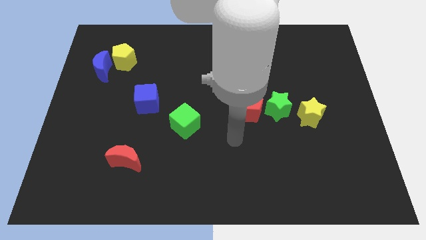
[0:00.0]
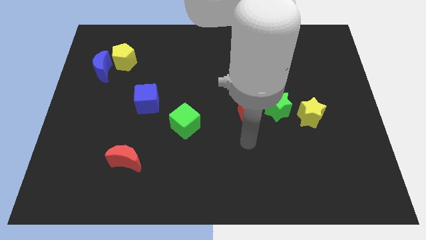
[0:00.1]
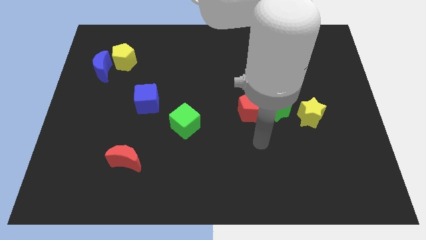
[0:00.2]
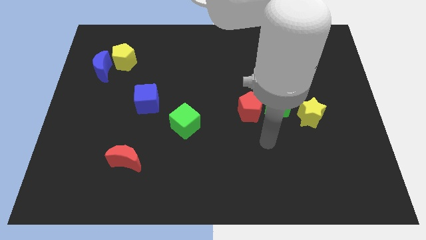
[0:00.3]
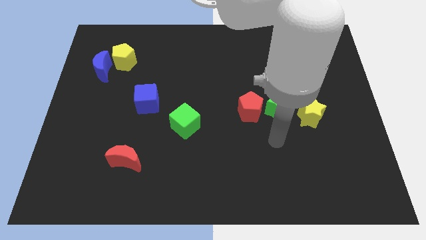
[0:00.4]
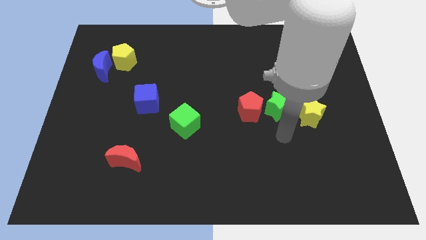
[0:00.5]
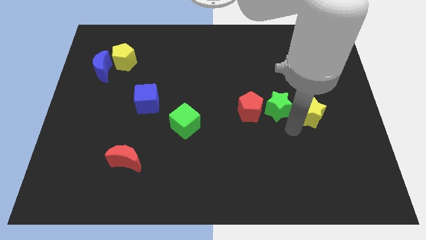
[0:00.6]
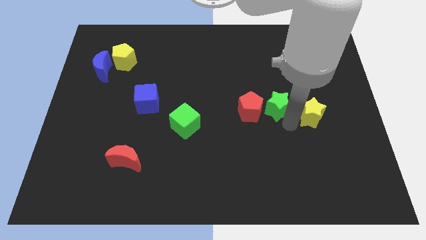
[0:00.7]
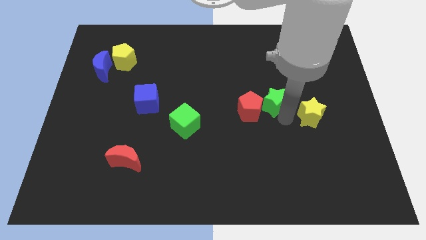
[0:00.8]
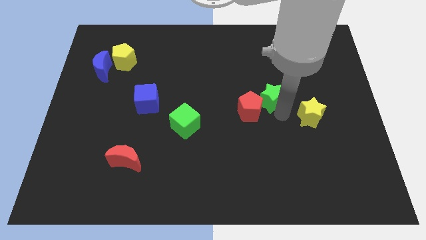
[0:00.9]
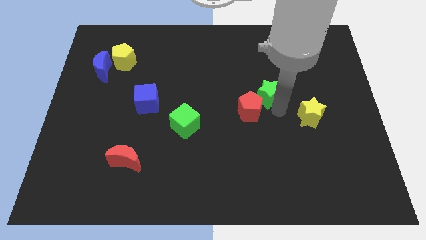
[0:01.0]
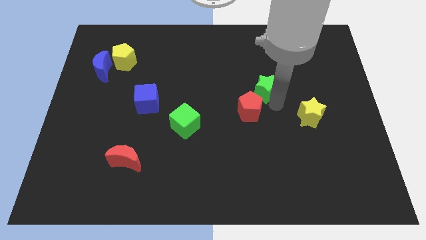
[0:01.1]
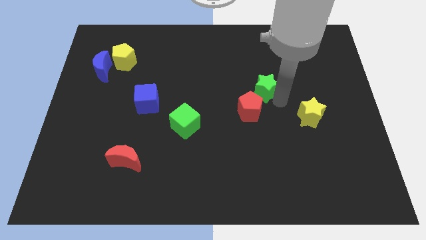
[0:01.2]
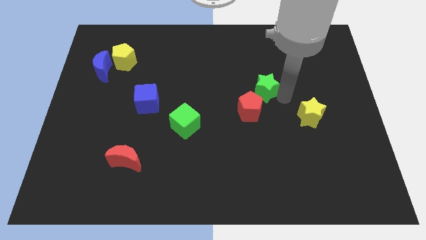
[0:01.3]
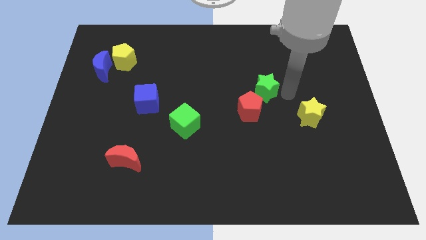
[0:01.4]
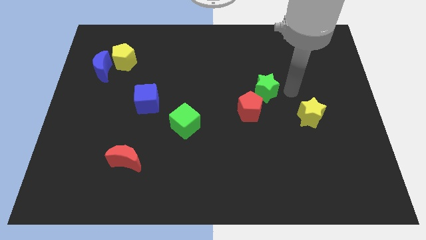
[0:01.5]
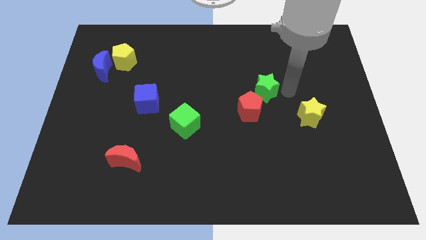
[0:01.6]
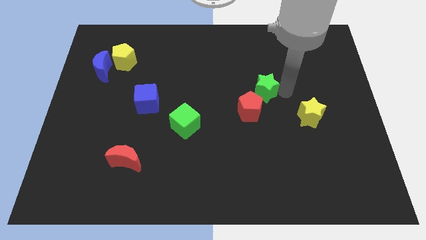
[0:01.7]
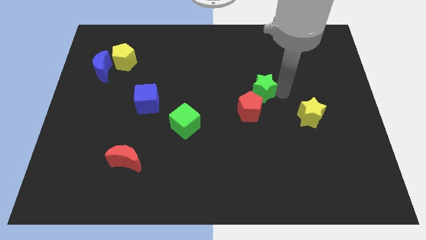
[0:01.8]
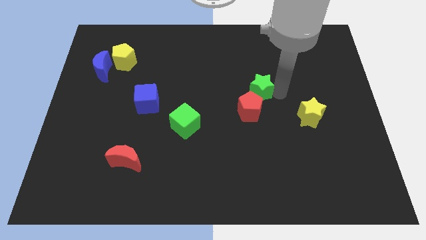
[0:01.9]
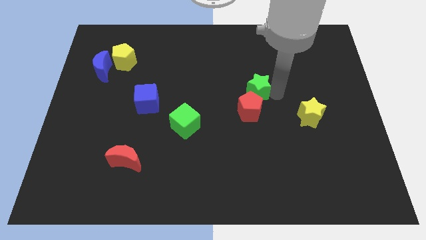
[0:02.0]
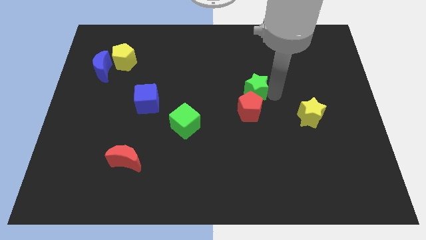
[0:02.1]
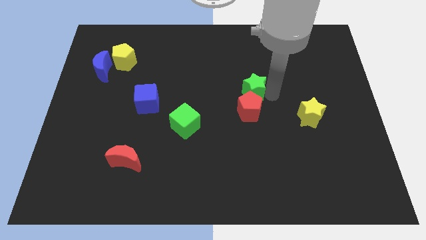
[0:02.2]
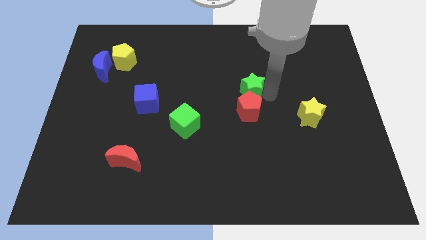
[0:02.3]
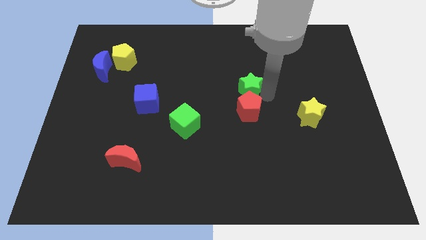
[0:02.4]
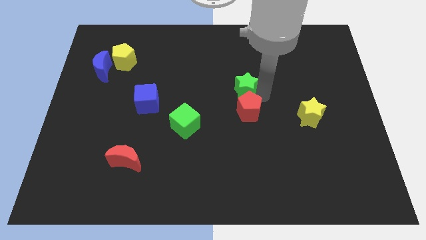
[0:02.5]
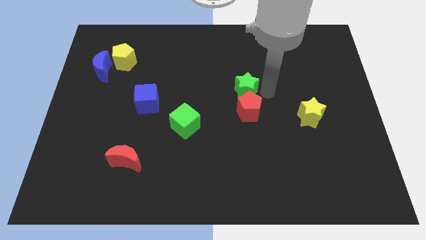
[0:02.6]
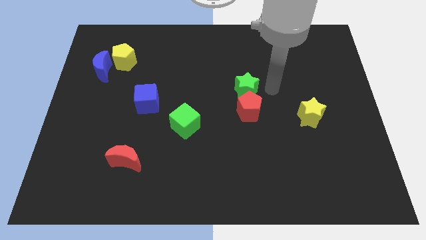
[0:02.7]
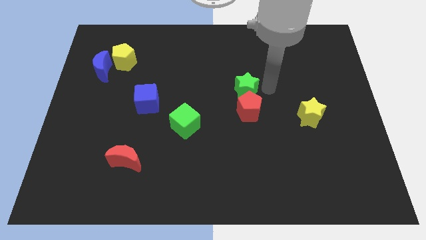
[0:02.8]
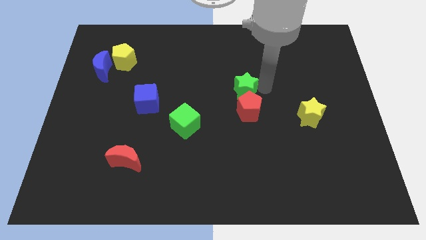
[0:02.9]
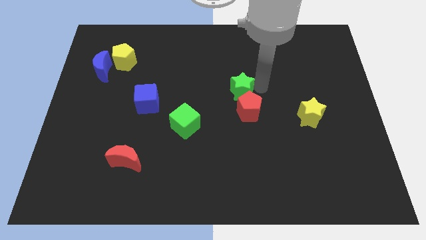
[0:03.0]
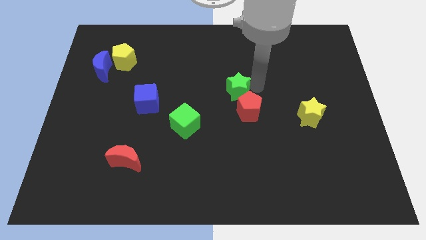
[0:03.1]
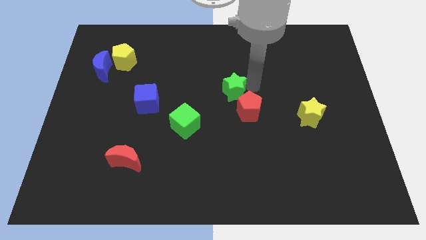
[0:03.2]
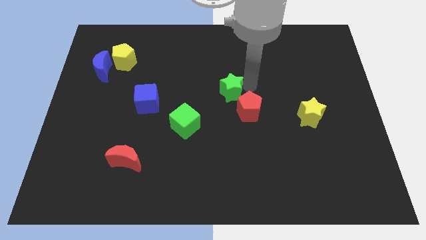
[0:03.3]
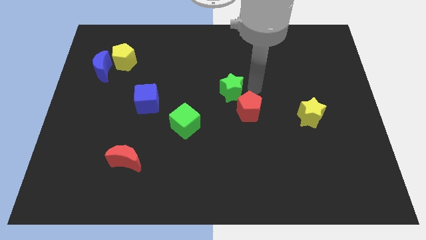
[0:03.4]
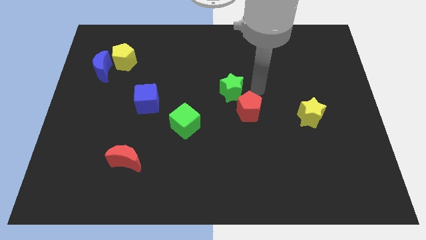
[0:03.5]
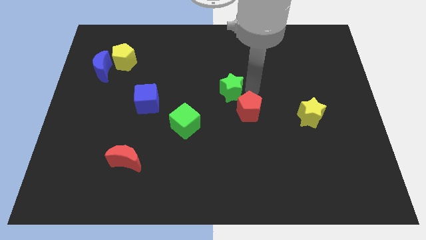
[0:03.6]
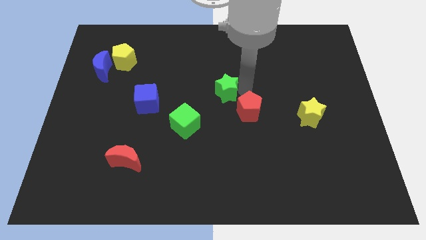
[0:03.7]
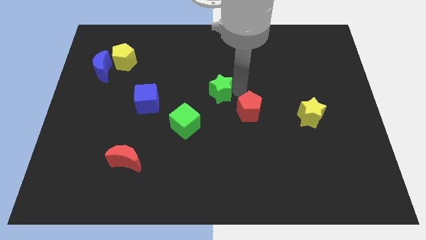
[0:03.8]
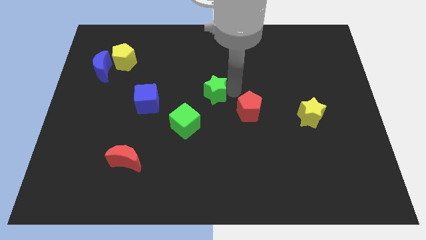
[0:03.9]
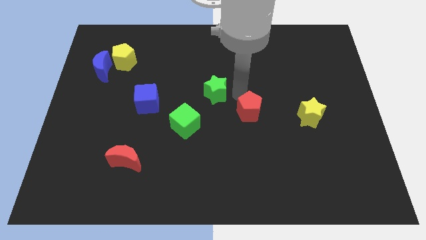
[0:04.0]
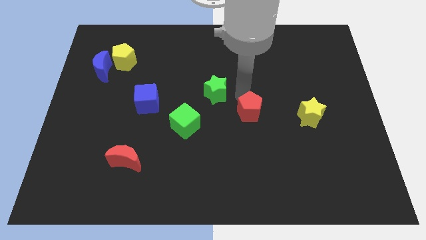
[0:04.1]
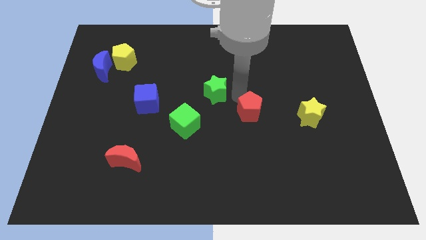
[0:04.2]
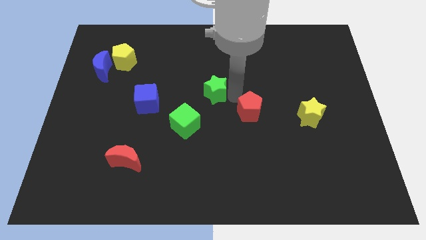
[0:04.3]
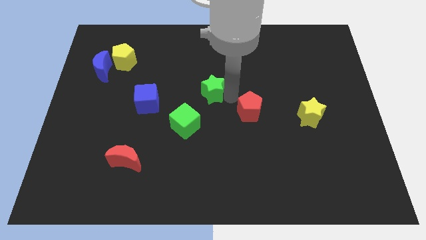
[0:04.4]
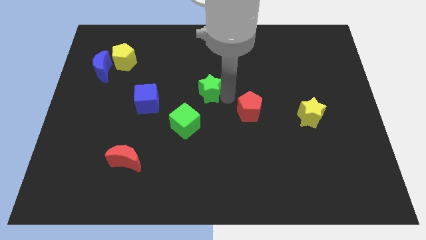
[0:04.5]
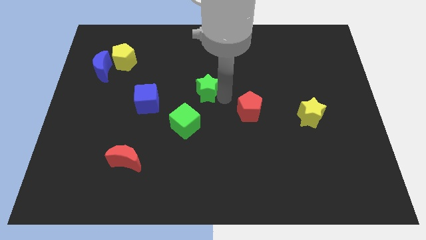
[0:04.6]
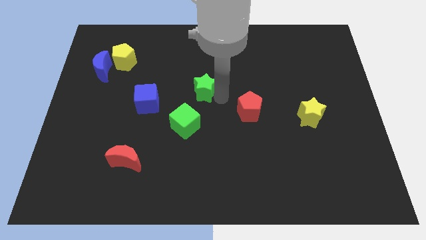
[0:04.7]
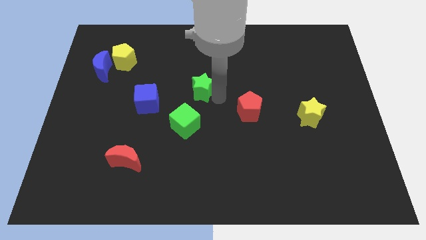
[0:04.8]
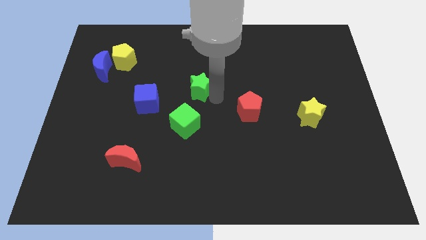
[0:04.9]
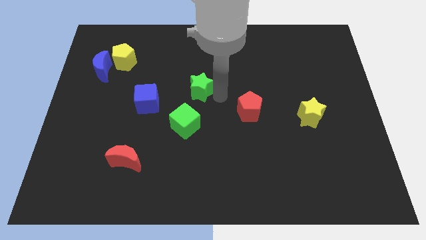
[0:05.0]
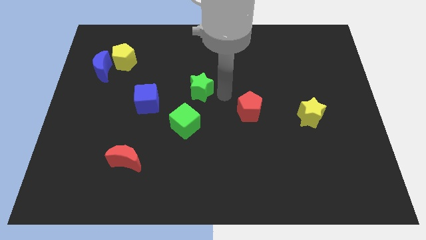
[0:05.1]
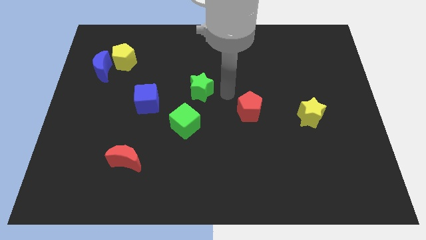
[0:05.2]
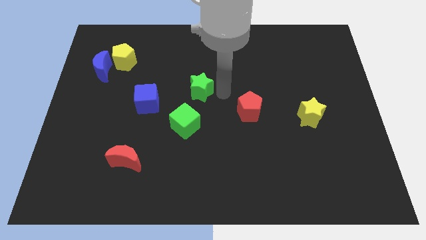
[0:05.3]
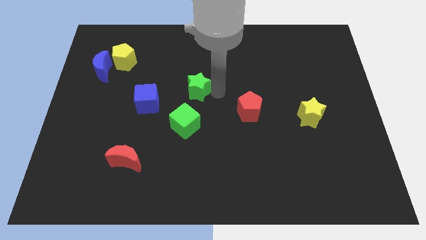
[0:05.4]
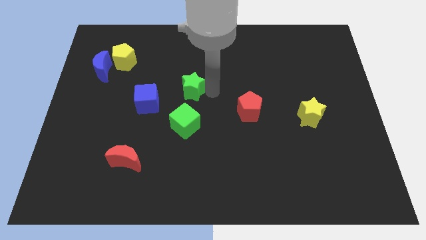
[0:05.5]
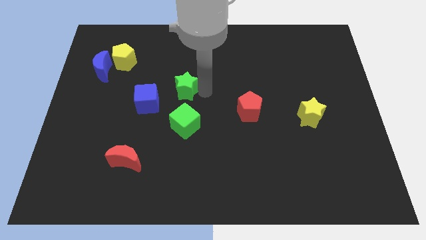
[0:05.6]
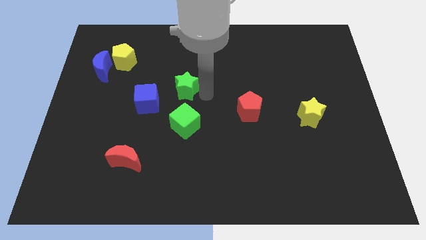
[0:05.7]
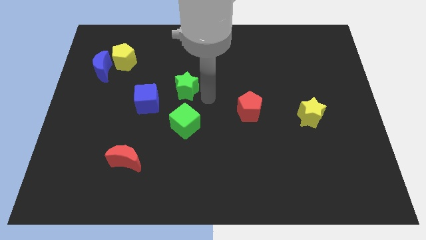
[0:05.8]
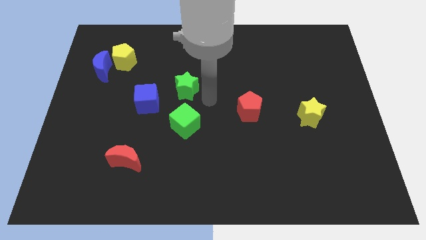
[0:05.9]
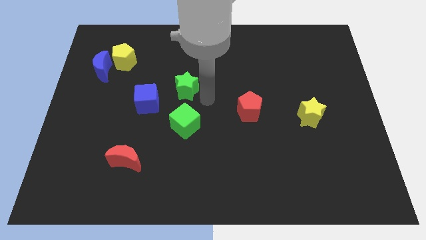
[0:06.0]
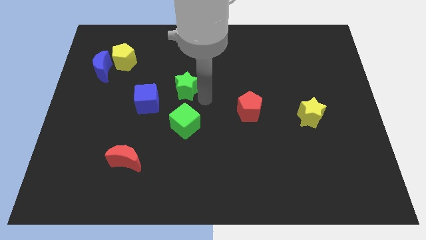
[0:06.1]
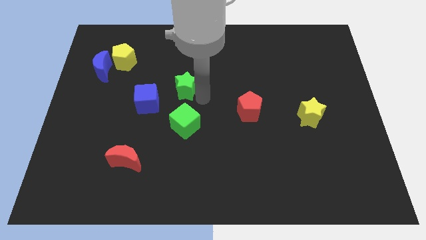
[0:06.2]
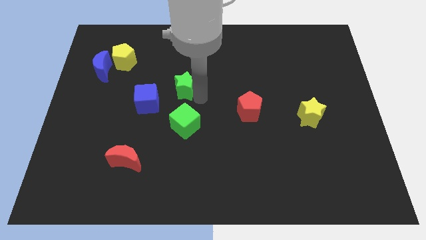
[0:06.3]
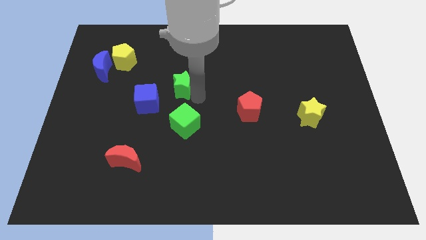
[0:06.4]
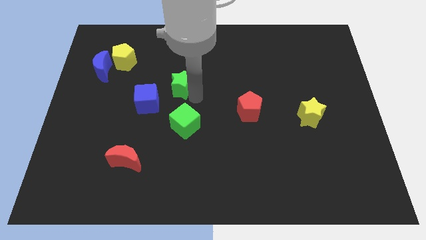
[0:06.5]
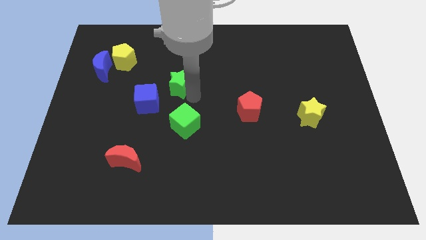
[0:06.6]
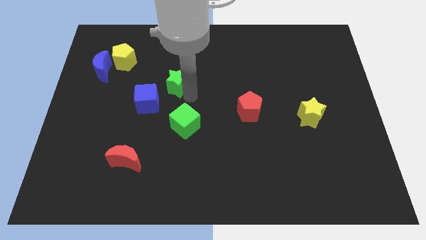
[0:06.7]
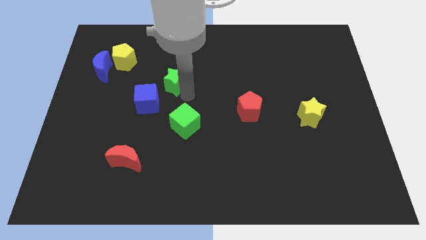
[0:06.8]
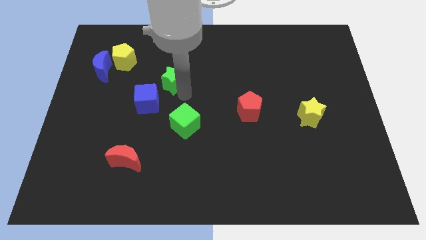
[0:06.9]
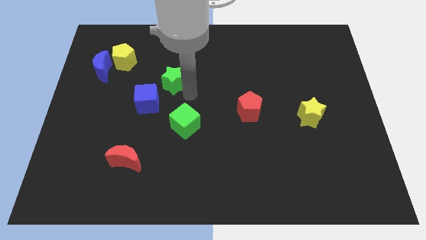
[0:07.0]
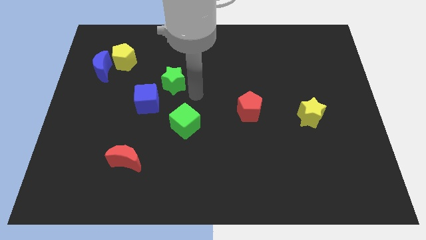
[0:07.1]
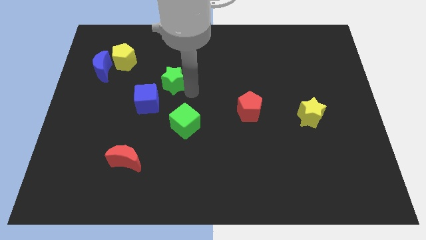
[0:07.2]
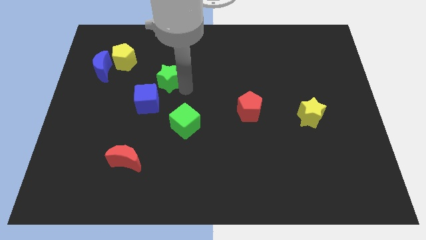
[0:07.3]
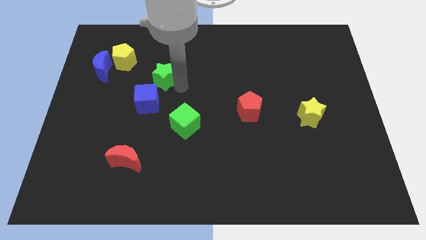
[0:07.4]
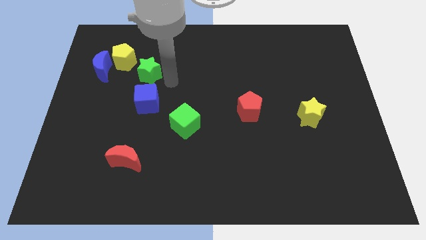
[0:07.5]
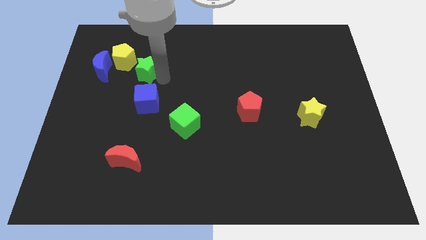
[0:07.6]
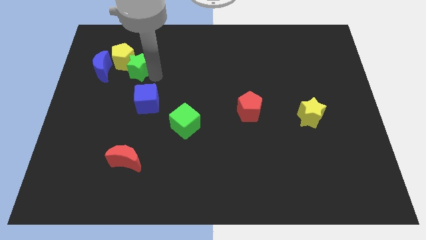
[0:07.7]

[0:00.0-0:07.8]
slide the green star next to the yellow pentagon
